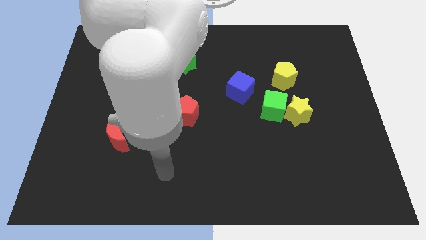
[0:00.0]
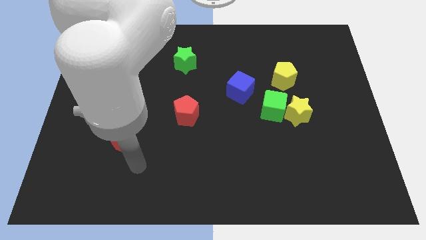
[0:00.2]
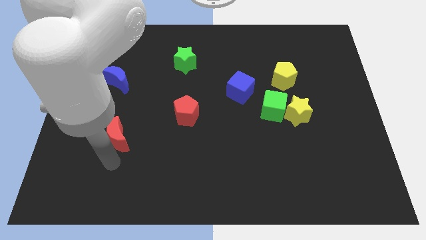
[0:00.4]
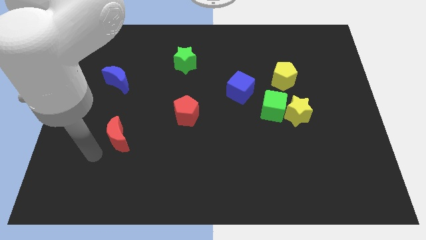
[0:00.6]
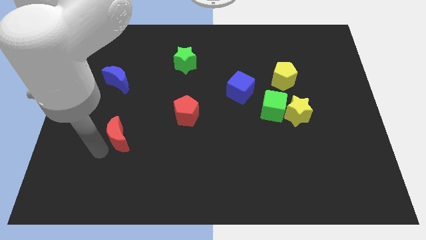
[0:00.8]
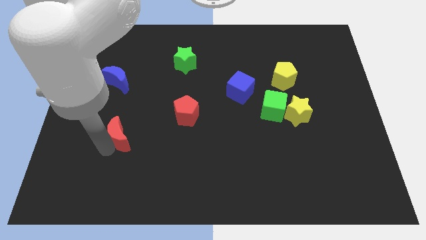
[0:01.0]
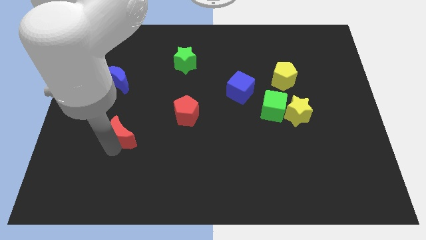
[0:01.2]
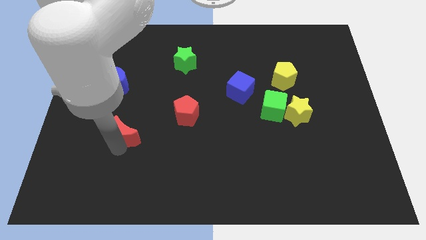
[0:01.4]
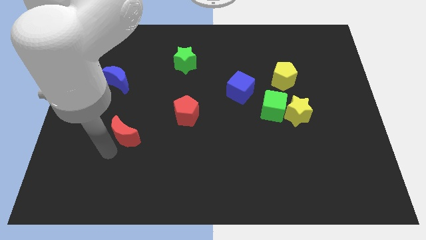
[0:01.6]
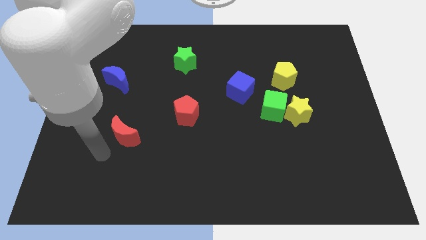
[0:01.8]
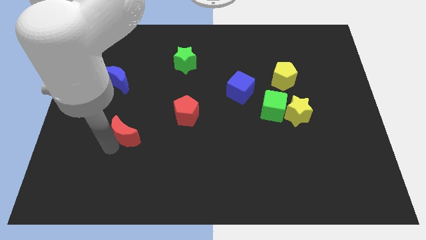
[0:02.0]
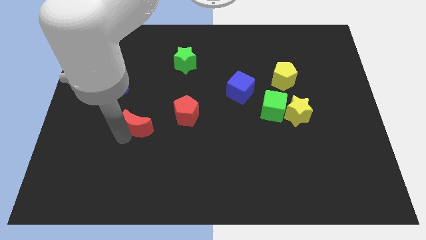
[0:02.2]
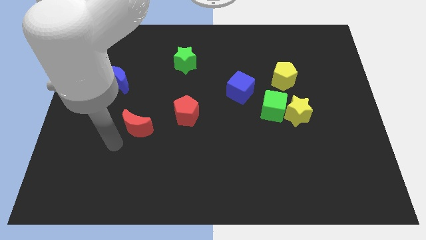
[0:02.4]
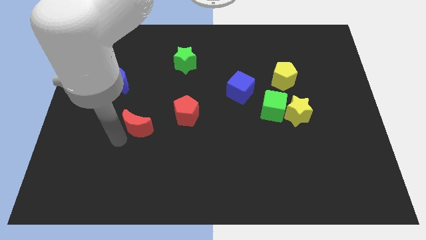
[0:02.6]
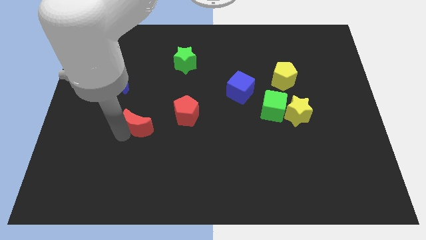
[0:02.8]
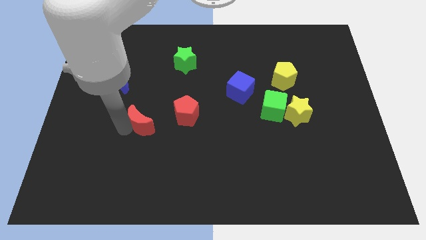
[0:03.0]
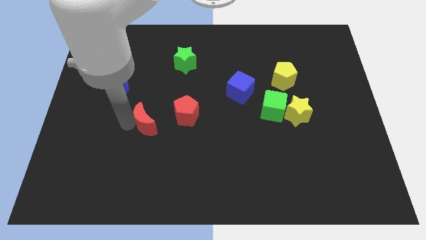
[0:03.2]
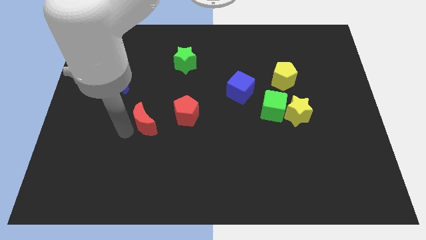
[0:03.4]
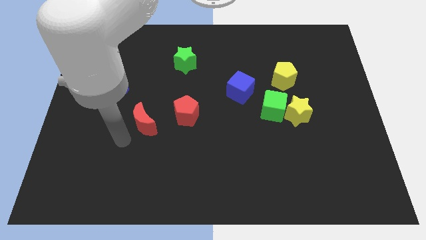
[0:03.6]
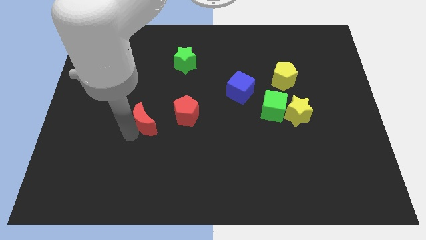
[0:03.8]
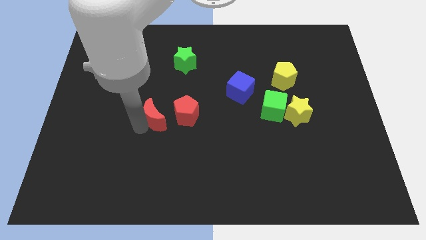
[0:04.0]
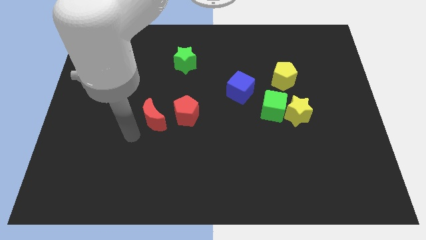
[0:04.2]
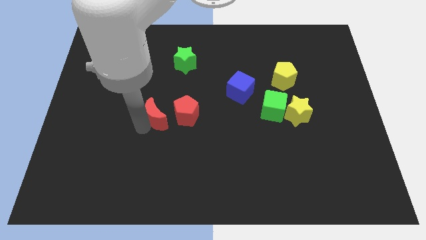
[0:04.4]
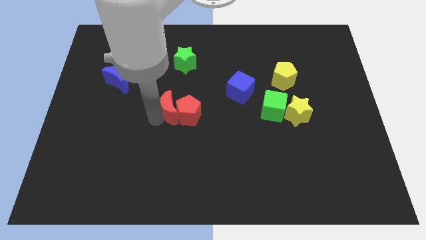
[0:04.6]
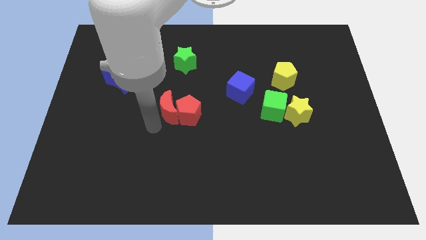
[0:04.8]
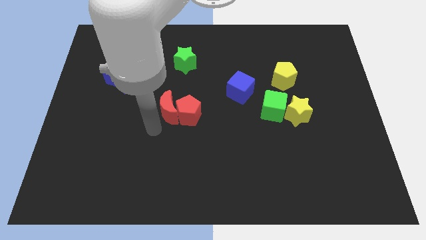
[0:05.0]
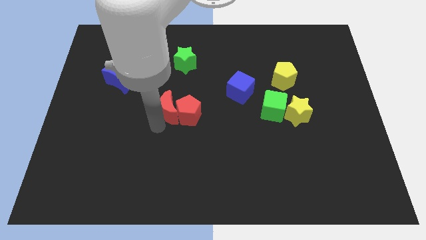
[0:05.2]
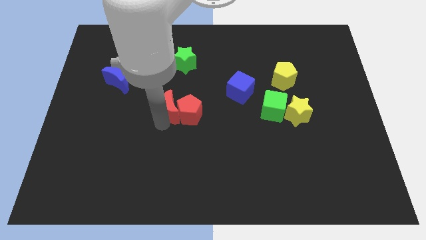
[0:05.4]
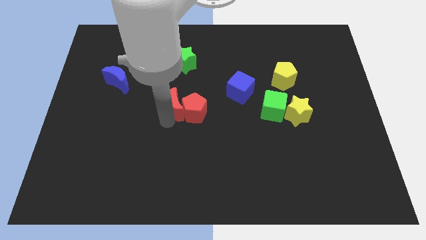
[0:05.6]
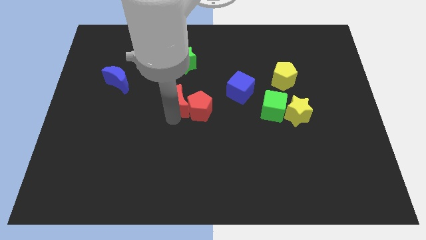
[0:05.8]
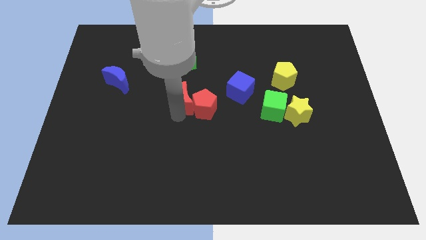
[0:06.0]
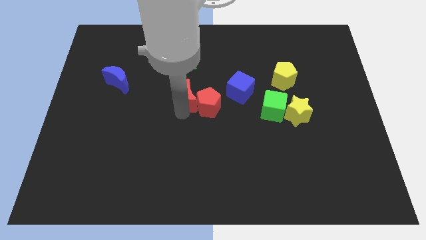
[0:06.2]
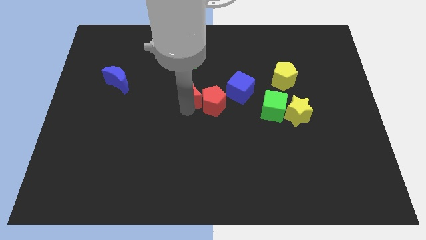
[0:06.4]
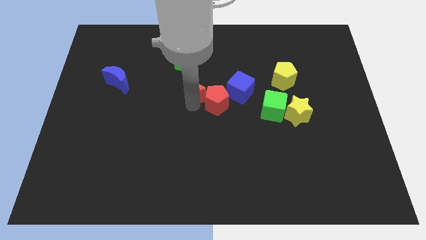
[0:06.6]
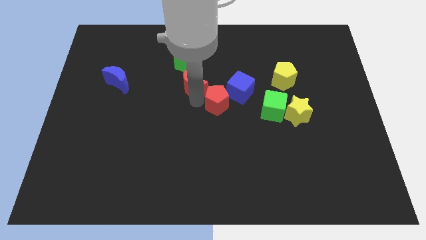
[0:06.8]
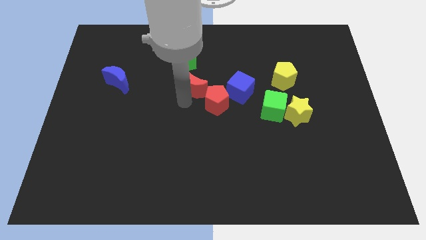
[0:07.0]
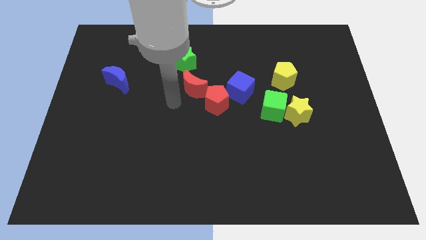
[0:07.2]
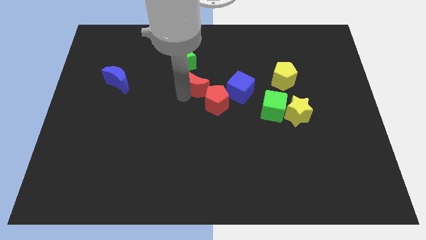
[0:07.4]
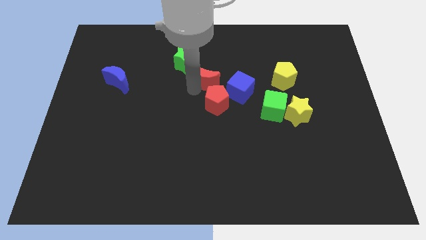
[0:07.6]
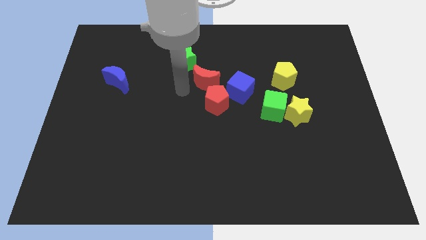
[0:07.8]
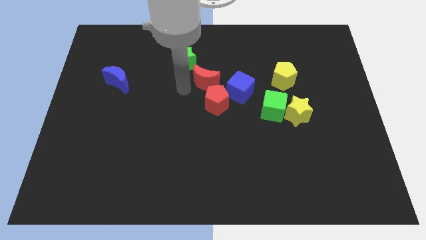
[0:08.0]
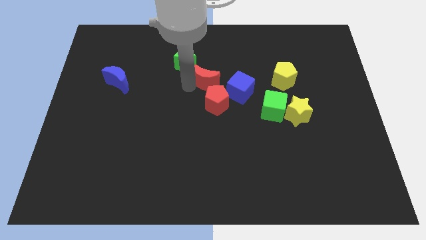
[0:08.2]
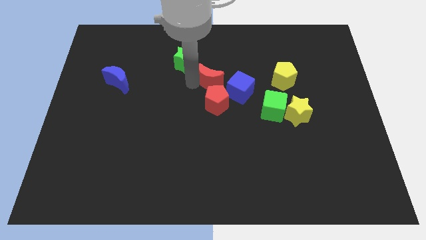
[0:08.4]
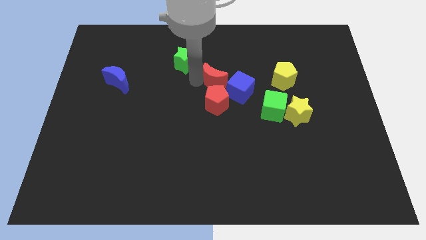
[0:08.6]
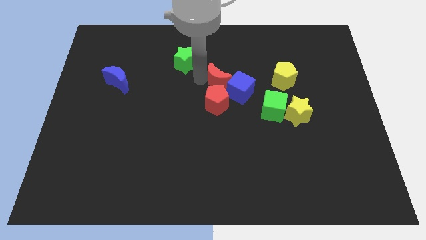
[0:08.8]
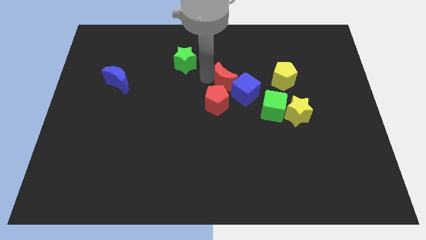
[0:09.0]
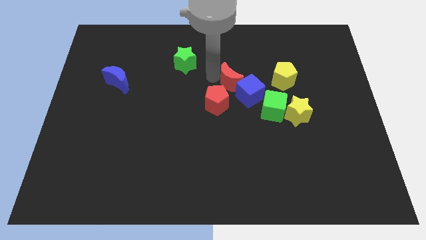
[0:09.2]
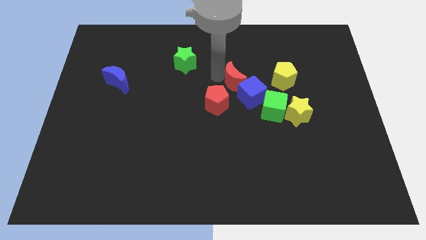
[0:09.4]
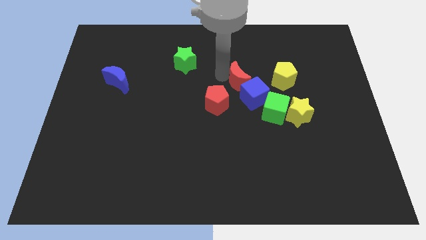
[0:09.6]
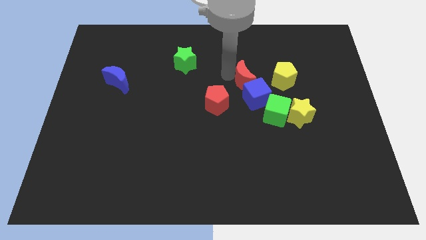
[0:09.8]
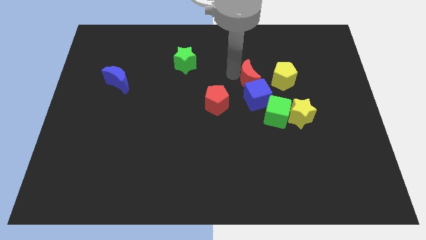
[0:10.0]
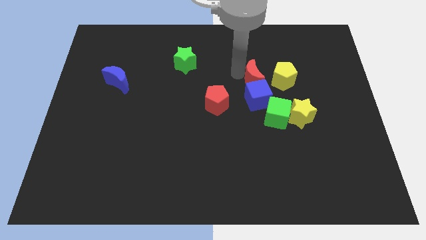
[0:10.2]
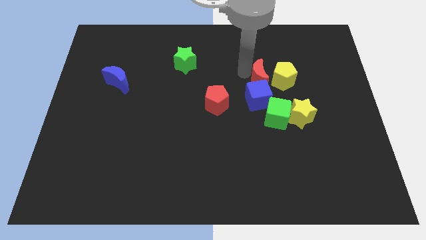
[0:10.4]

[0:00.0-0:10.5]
push the red moon next to the yellow pentagon

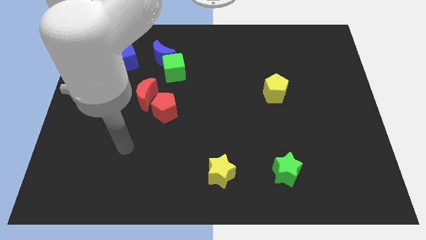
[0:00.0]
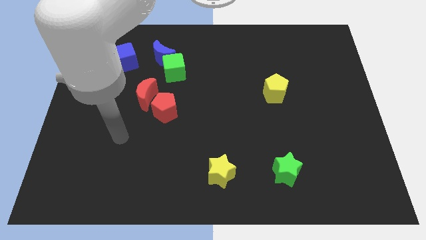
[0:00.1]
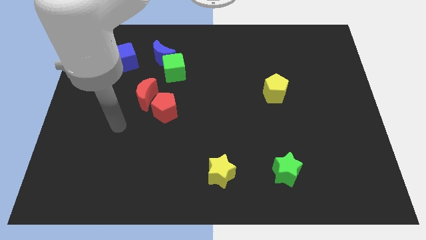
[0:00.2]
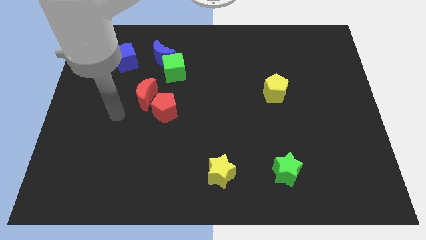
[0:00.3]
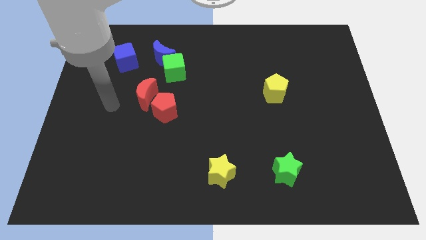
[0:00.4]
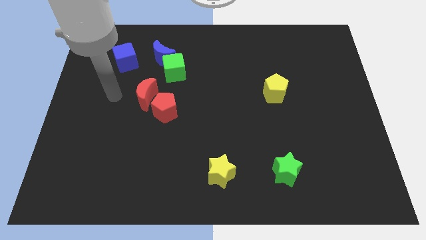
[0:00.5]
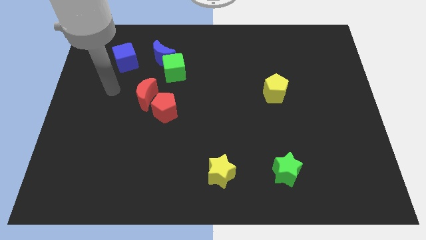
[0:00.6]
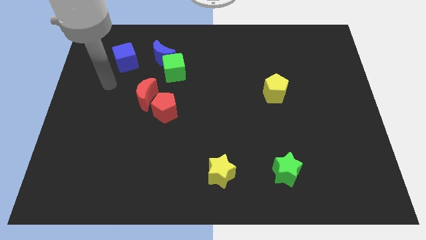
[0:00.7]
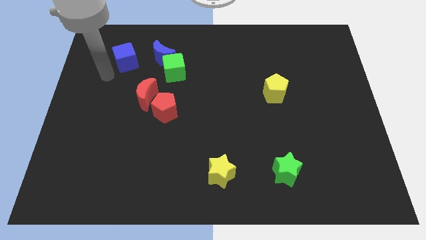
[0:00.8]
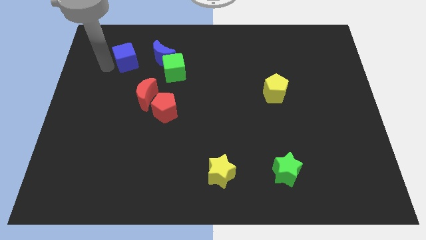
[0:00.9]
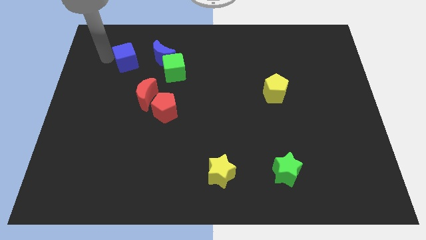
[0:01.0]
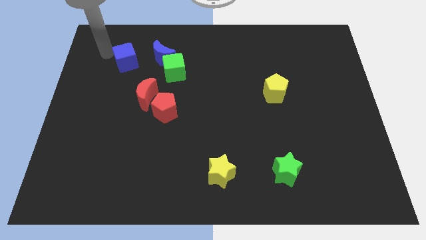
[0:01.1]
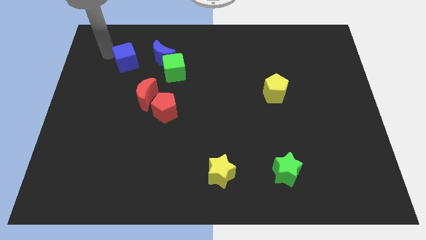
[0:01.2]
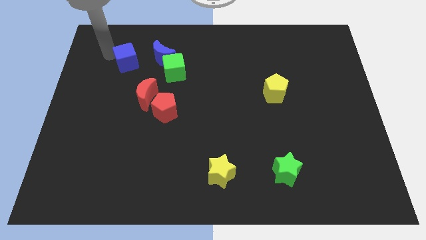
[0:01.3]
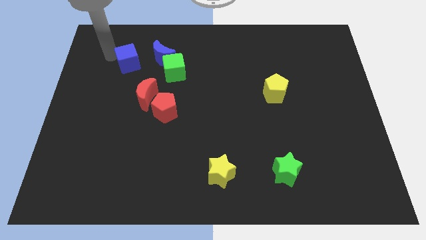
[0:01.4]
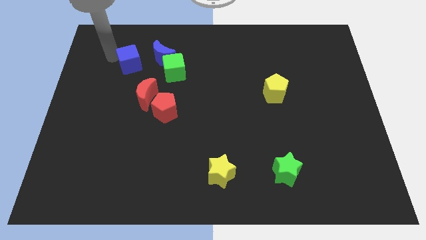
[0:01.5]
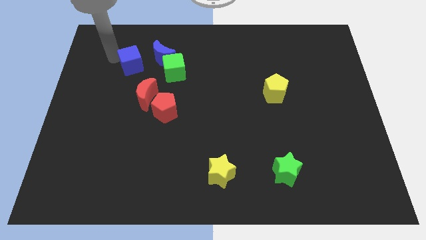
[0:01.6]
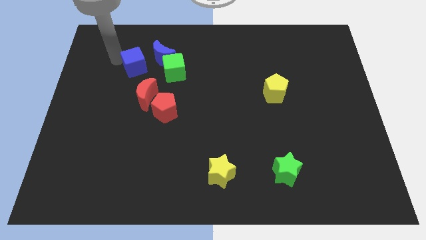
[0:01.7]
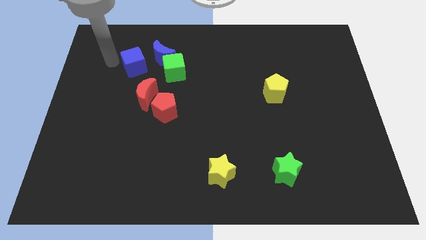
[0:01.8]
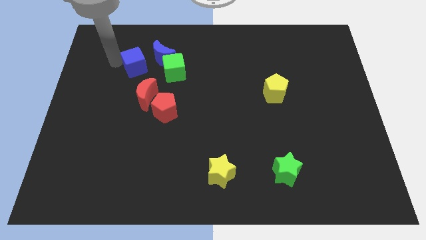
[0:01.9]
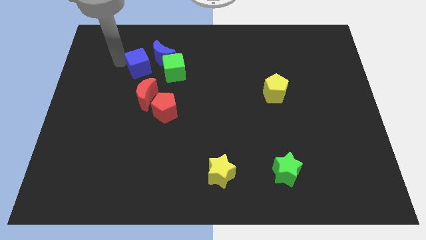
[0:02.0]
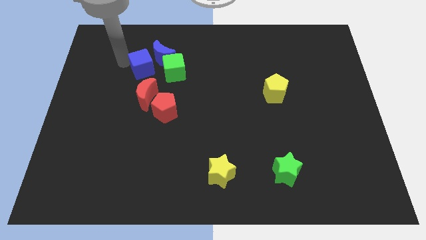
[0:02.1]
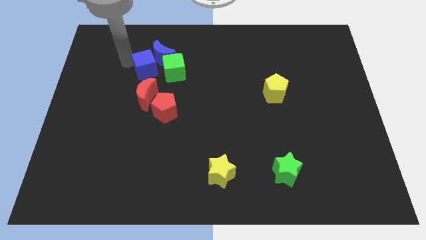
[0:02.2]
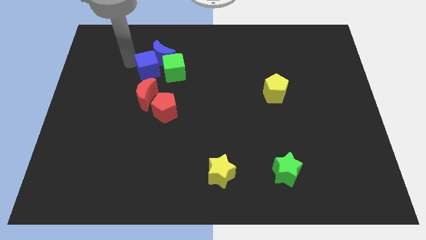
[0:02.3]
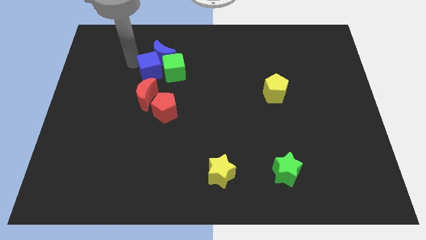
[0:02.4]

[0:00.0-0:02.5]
push the blue cube towards the green cube
